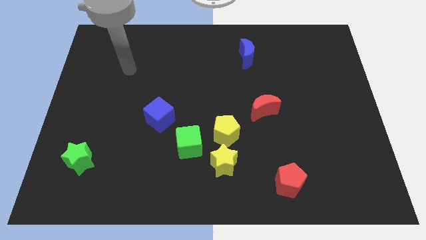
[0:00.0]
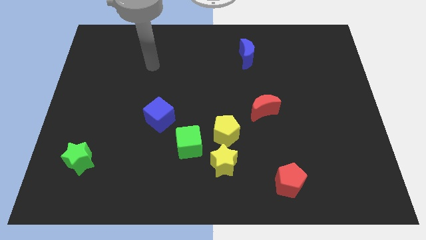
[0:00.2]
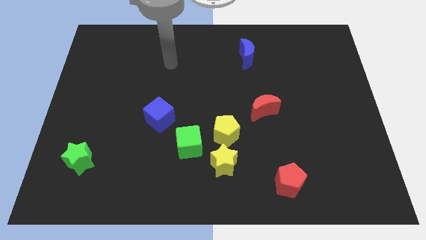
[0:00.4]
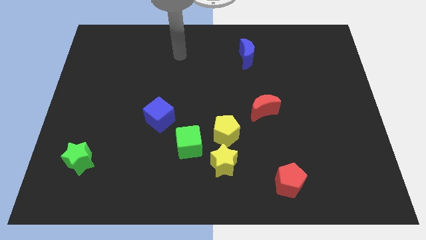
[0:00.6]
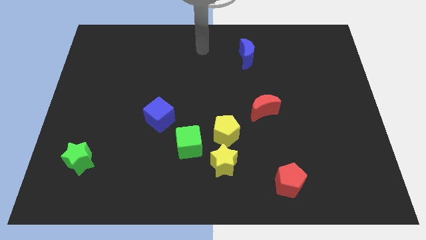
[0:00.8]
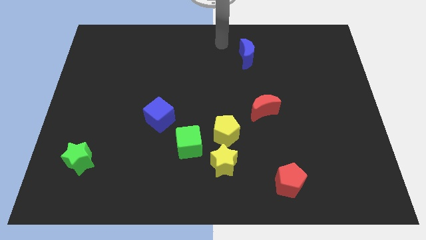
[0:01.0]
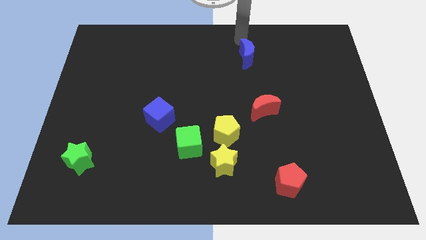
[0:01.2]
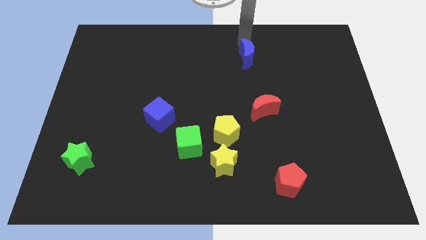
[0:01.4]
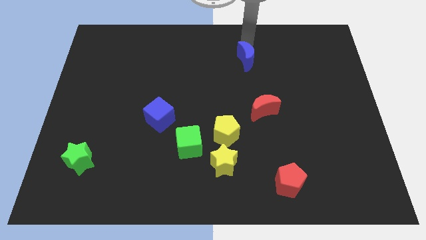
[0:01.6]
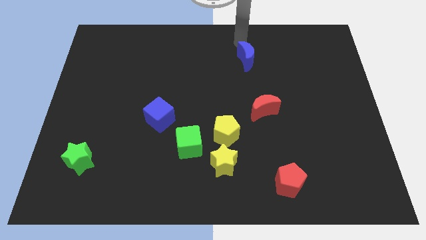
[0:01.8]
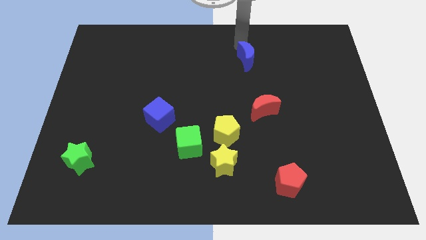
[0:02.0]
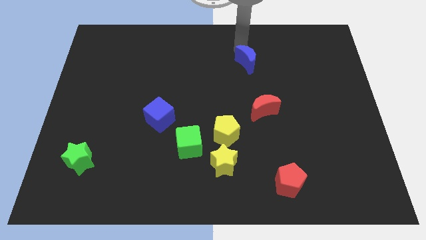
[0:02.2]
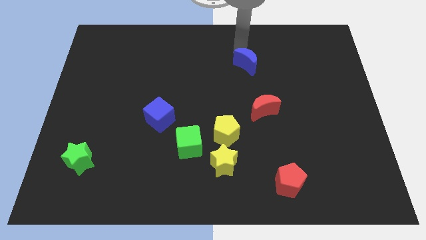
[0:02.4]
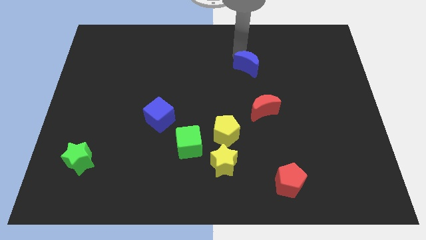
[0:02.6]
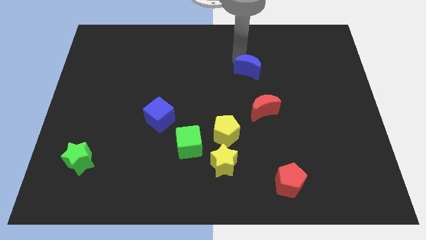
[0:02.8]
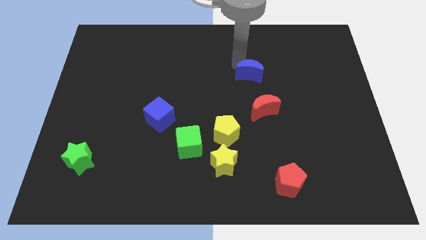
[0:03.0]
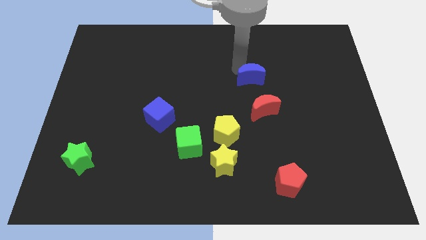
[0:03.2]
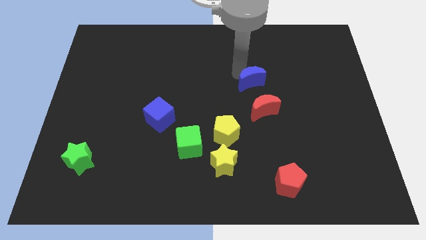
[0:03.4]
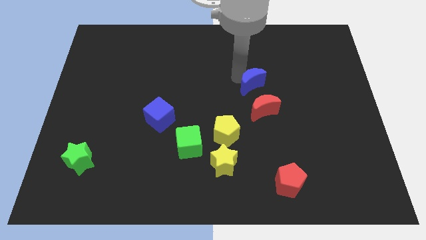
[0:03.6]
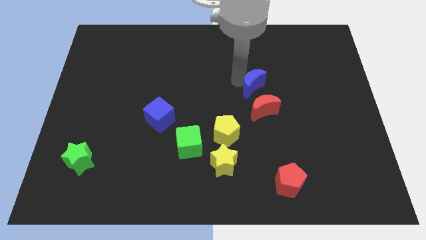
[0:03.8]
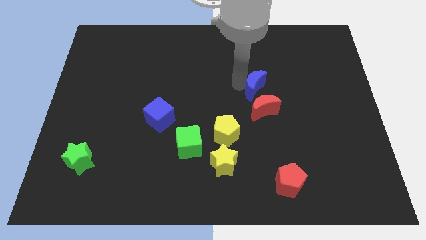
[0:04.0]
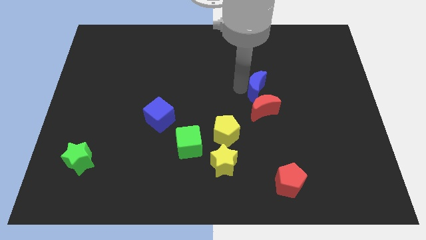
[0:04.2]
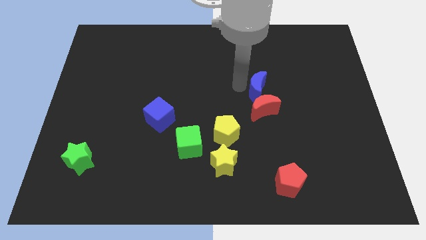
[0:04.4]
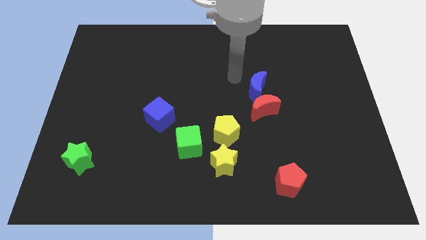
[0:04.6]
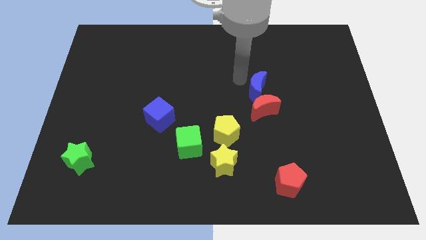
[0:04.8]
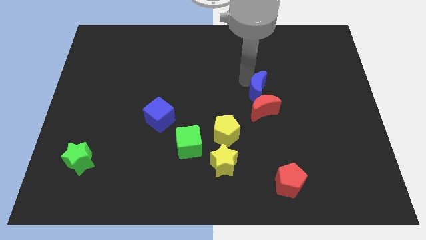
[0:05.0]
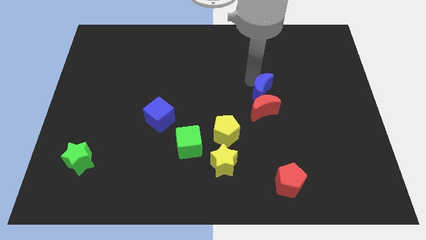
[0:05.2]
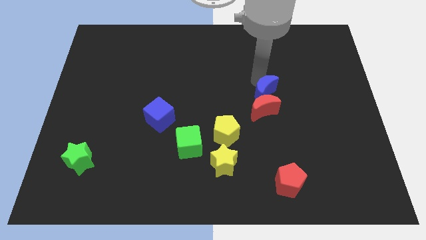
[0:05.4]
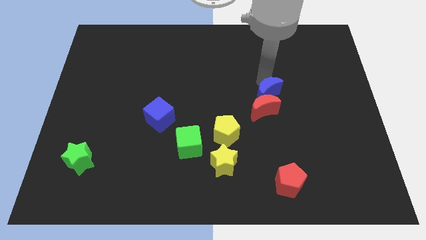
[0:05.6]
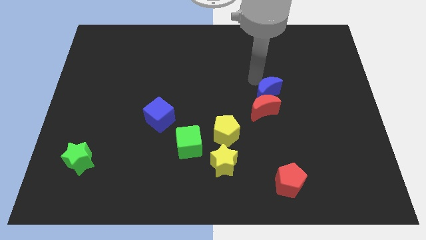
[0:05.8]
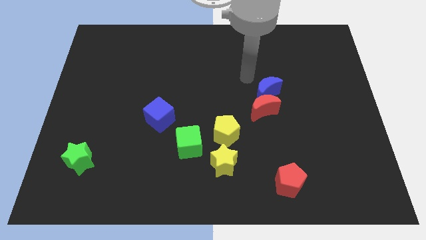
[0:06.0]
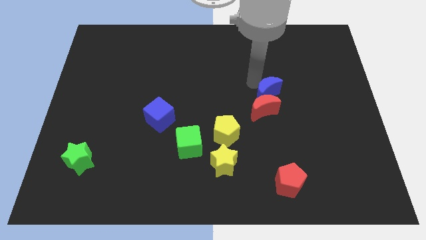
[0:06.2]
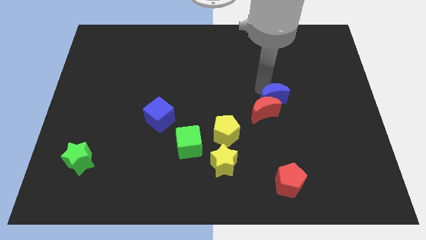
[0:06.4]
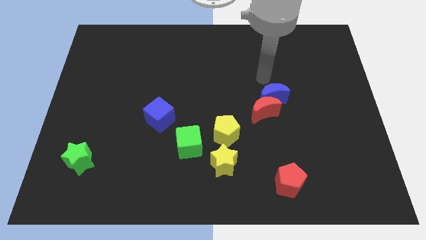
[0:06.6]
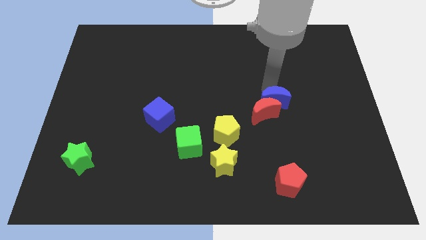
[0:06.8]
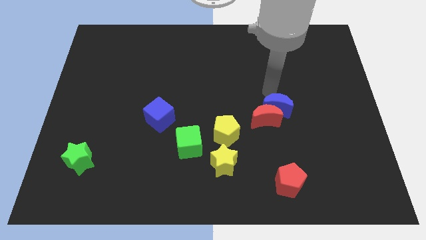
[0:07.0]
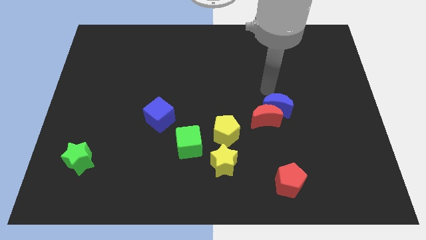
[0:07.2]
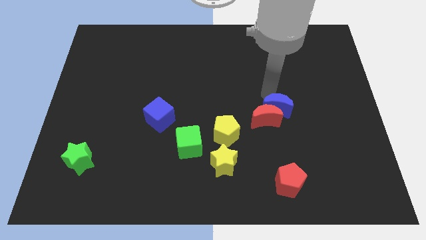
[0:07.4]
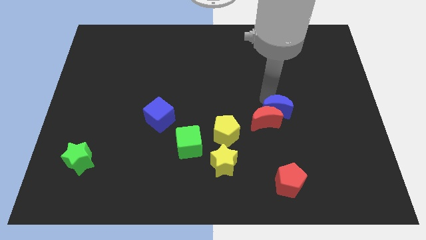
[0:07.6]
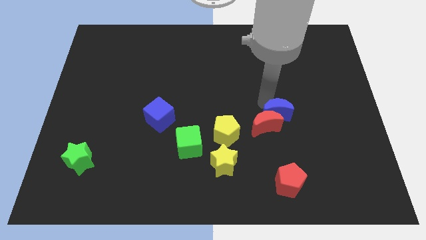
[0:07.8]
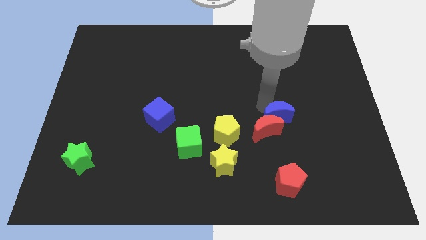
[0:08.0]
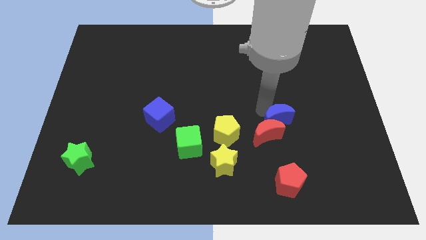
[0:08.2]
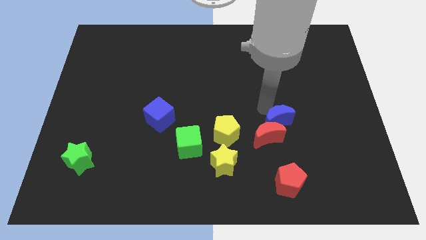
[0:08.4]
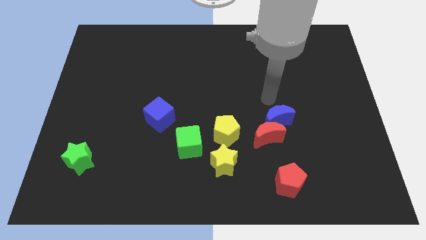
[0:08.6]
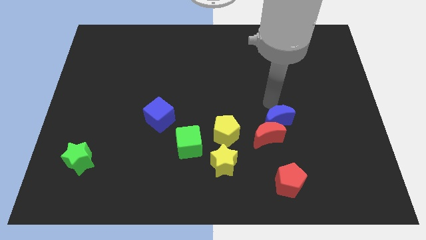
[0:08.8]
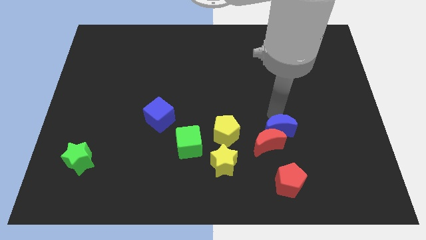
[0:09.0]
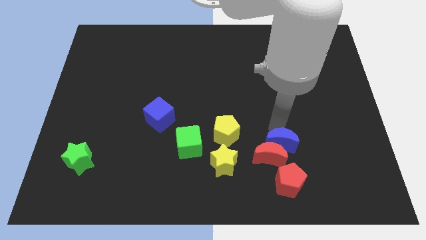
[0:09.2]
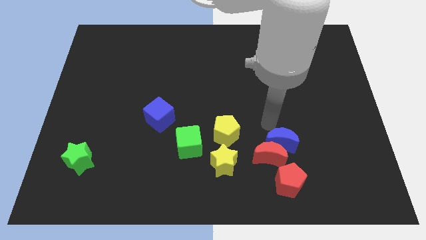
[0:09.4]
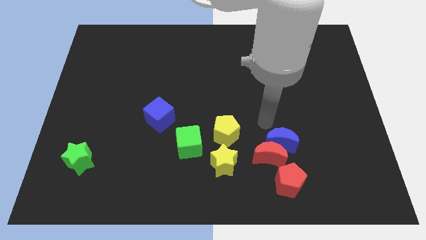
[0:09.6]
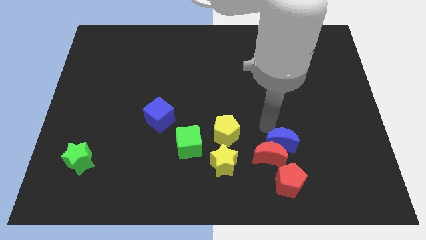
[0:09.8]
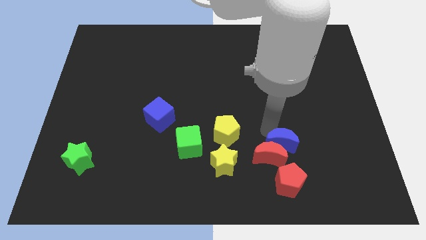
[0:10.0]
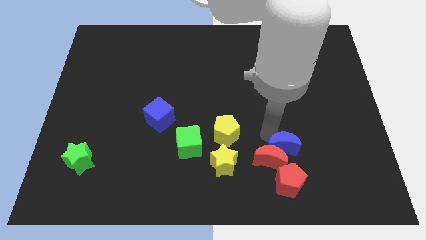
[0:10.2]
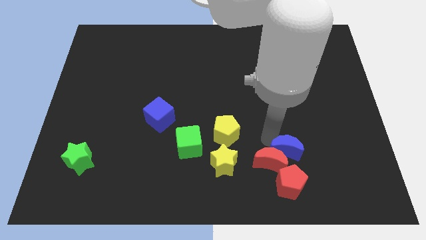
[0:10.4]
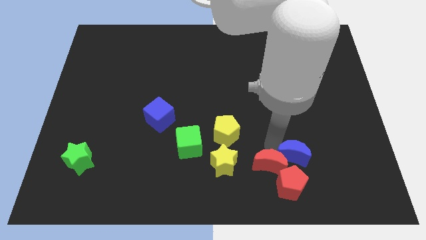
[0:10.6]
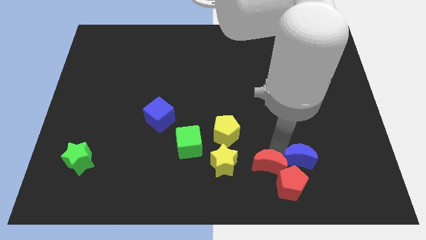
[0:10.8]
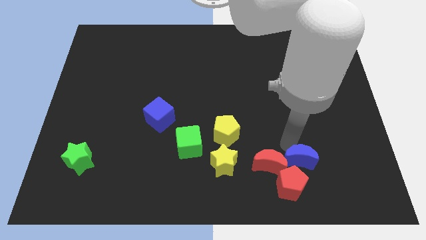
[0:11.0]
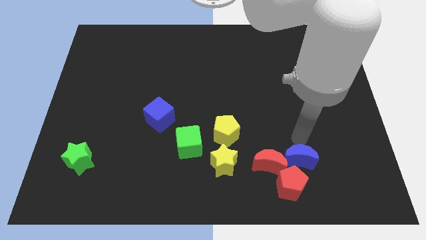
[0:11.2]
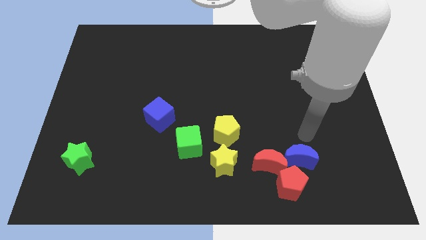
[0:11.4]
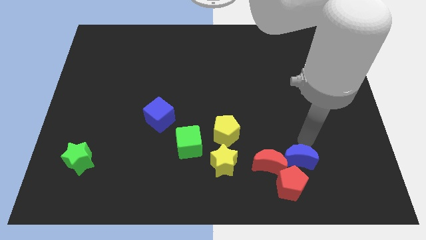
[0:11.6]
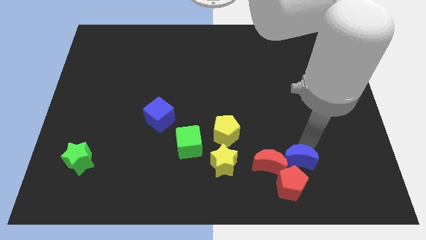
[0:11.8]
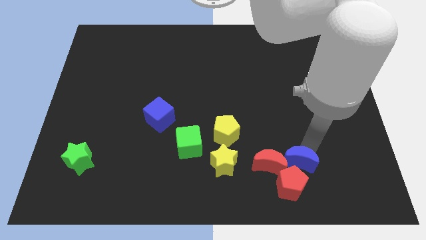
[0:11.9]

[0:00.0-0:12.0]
push the blue moon to the red pentagon
